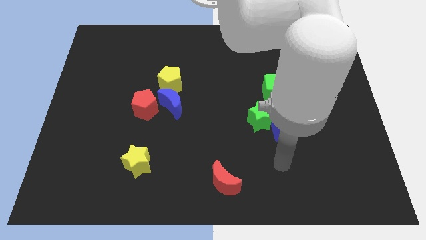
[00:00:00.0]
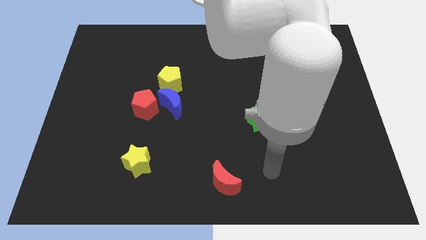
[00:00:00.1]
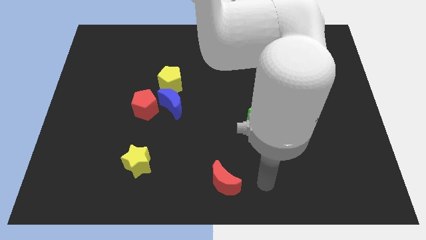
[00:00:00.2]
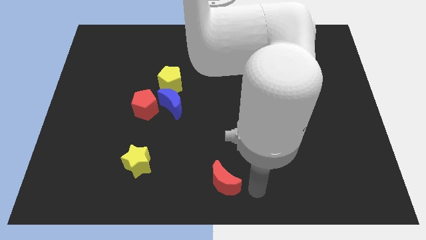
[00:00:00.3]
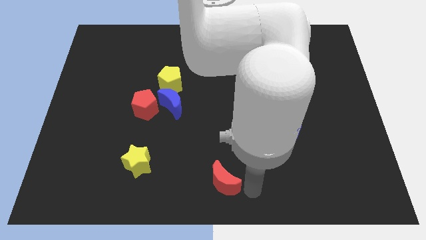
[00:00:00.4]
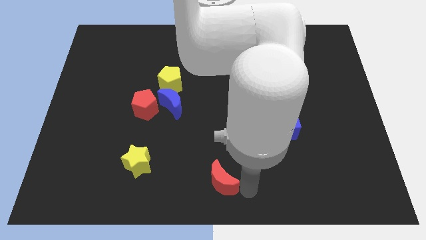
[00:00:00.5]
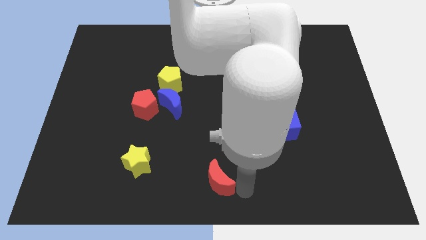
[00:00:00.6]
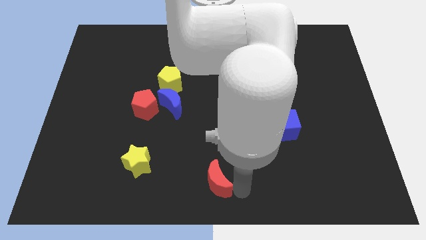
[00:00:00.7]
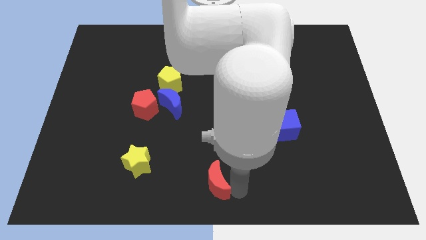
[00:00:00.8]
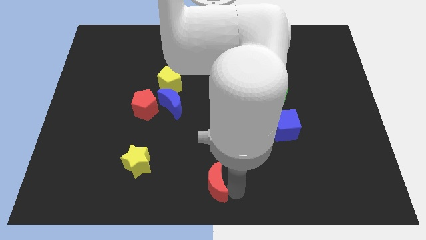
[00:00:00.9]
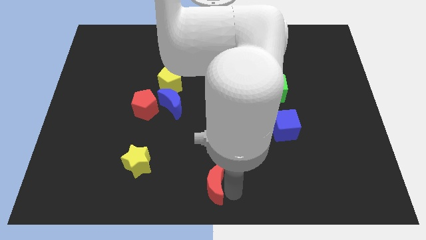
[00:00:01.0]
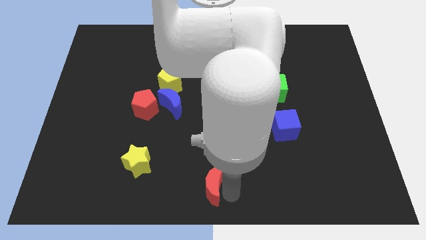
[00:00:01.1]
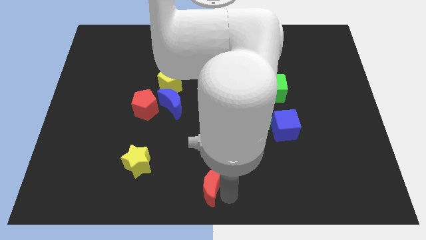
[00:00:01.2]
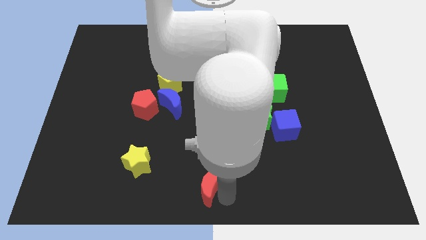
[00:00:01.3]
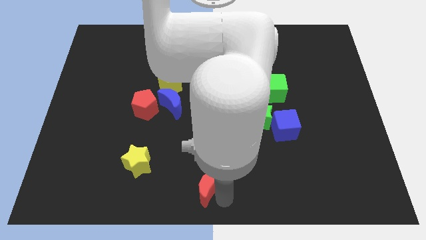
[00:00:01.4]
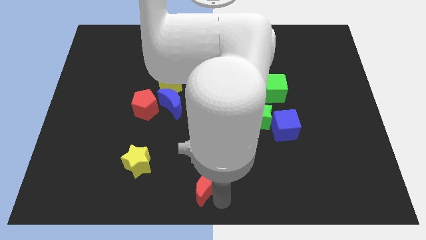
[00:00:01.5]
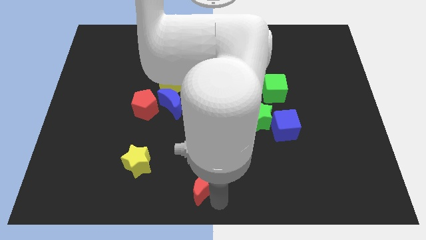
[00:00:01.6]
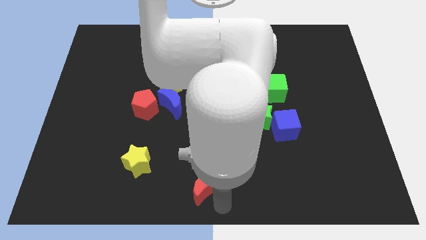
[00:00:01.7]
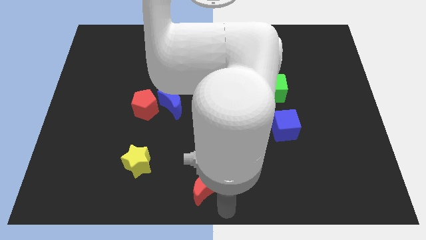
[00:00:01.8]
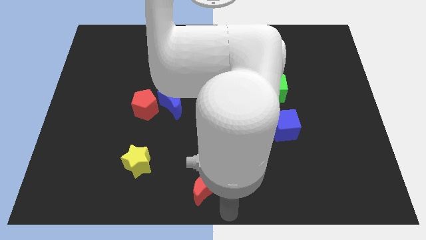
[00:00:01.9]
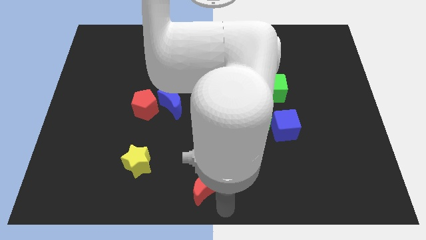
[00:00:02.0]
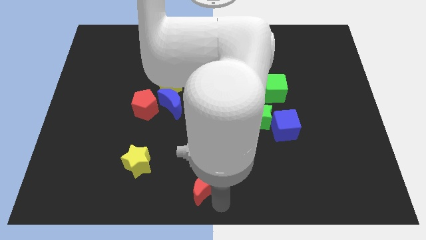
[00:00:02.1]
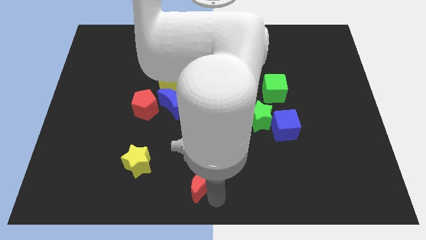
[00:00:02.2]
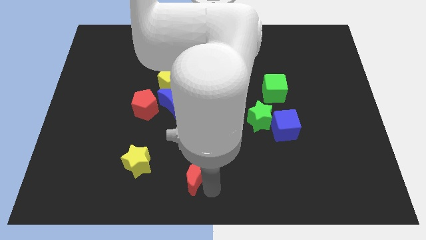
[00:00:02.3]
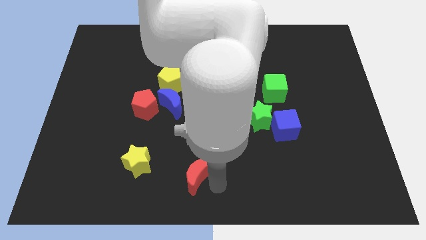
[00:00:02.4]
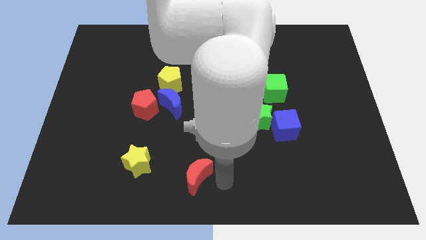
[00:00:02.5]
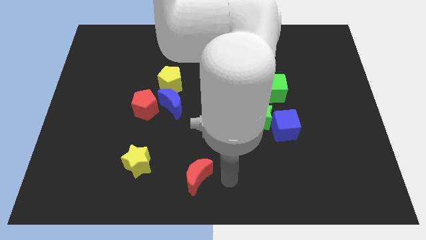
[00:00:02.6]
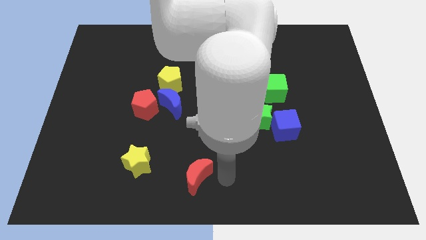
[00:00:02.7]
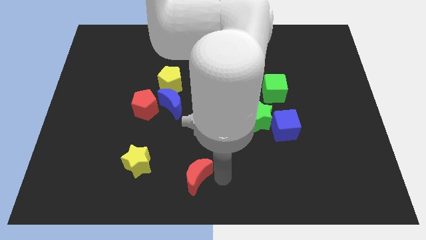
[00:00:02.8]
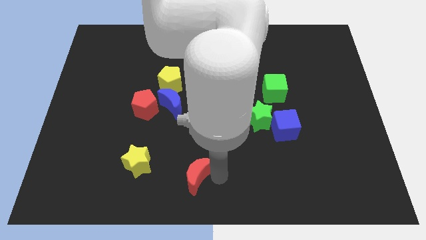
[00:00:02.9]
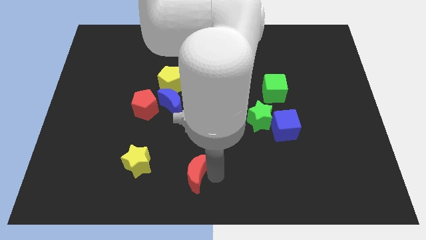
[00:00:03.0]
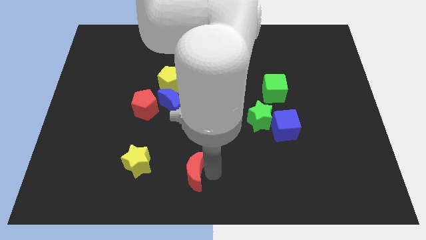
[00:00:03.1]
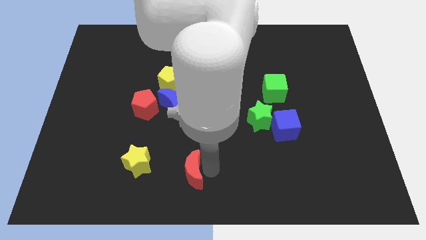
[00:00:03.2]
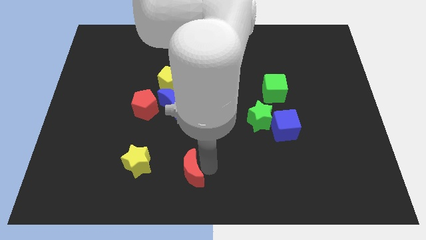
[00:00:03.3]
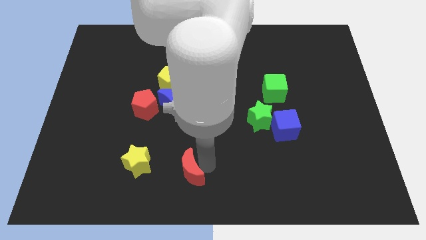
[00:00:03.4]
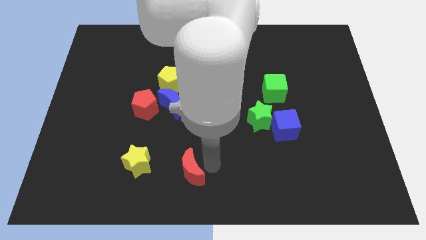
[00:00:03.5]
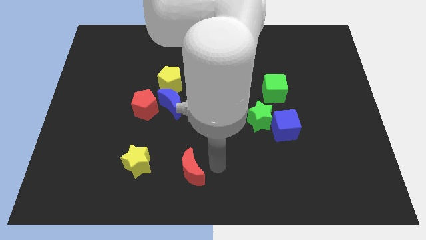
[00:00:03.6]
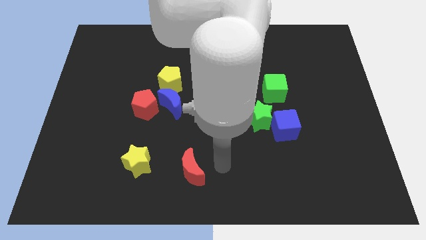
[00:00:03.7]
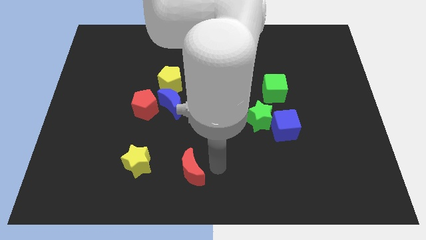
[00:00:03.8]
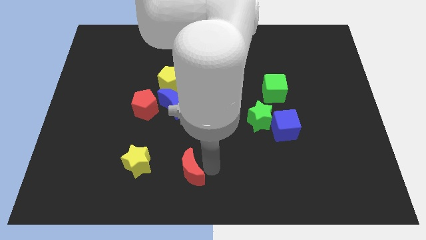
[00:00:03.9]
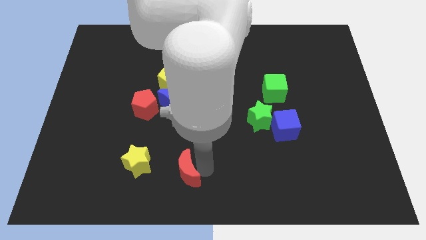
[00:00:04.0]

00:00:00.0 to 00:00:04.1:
push the red moon to the left a bit

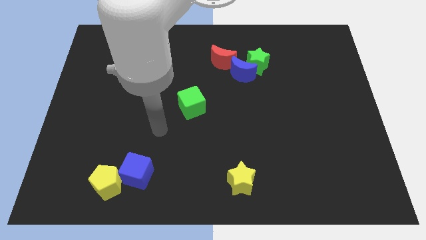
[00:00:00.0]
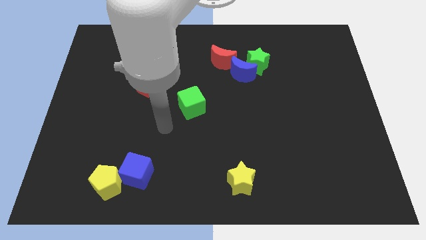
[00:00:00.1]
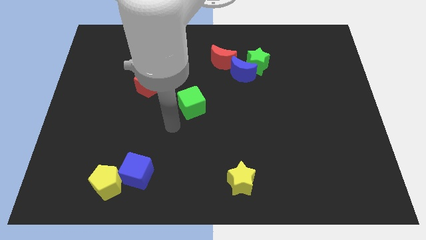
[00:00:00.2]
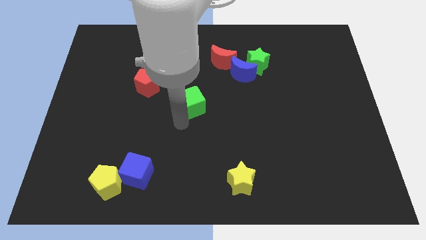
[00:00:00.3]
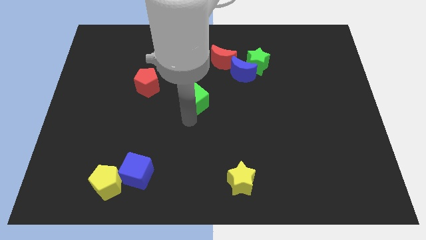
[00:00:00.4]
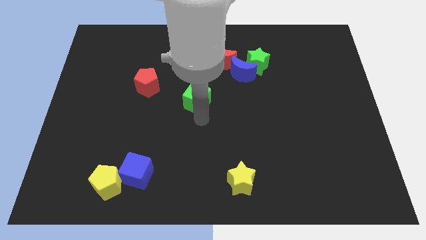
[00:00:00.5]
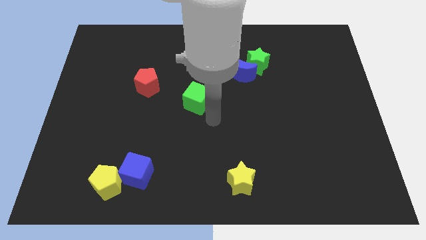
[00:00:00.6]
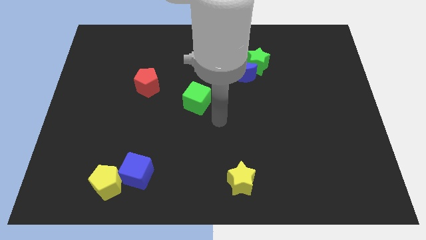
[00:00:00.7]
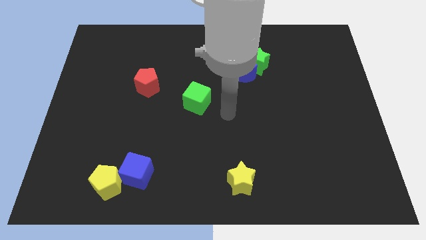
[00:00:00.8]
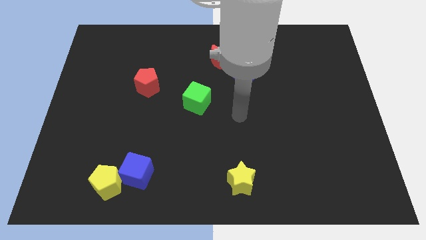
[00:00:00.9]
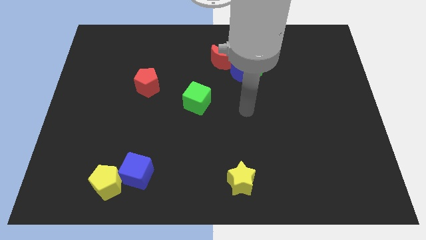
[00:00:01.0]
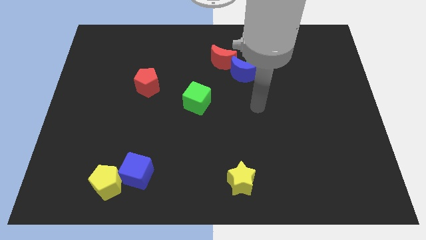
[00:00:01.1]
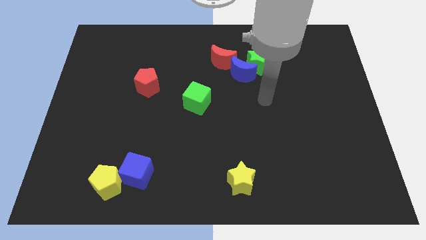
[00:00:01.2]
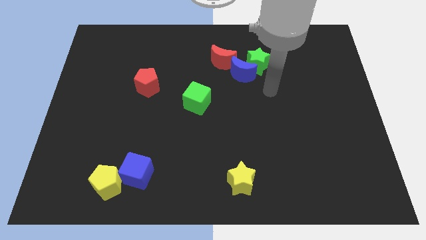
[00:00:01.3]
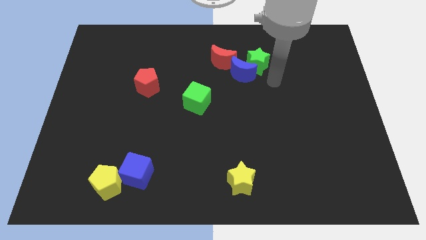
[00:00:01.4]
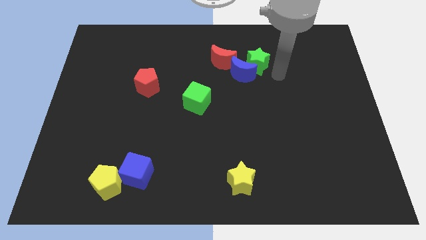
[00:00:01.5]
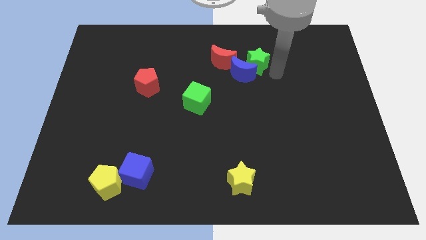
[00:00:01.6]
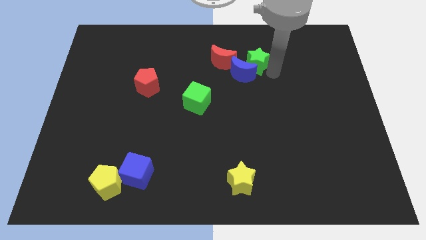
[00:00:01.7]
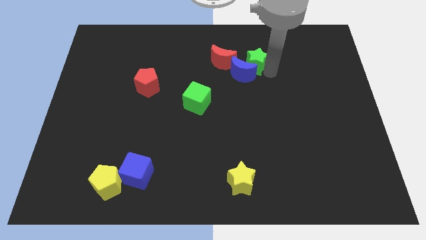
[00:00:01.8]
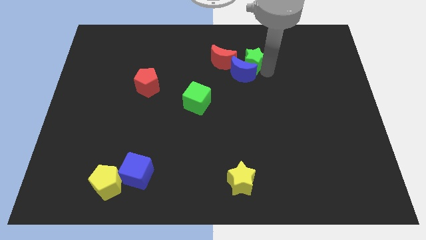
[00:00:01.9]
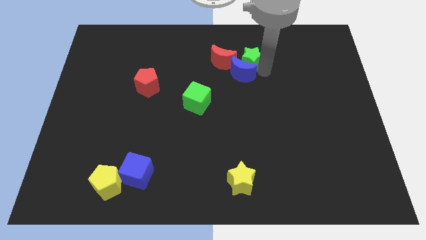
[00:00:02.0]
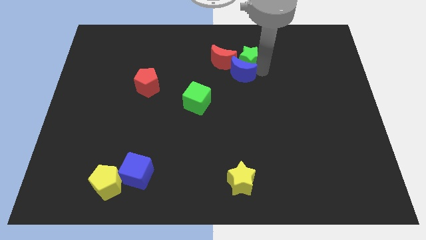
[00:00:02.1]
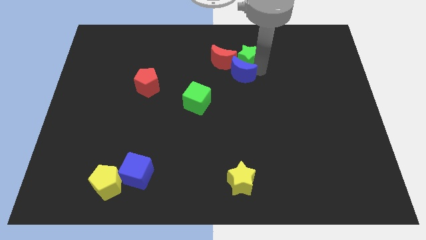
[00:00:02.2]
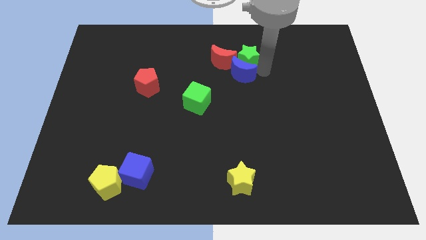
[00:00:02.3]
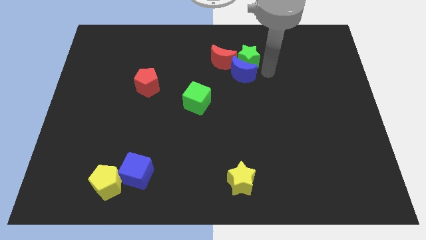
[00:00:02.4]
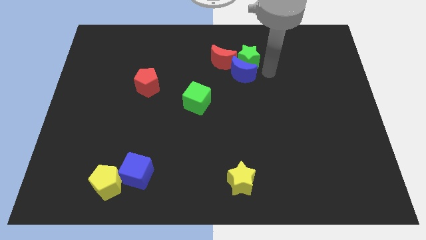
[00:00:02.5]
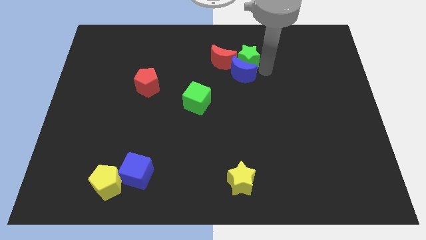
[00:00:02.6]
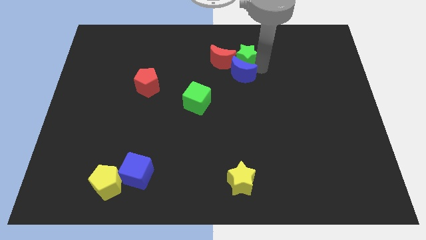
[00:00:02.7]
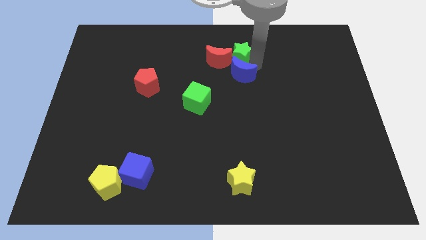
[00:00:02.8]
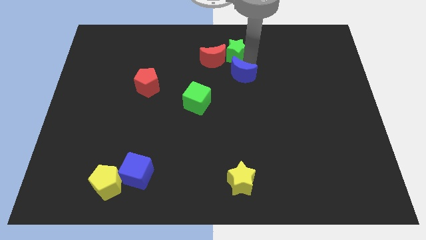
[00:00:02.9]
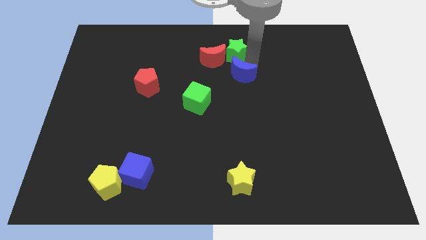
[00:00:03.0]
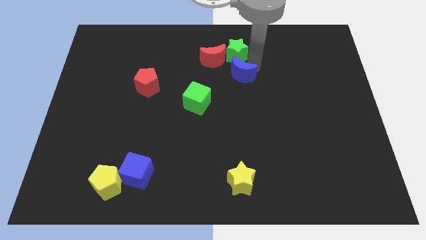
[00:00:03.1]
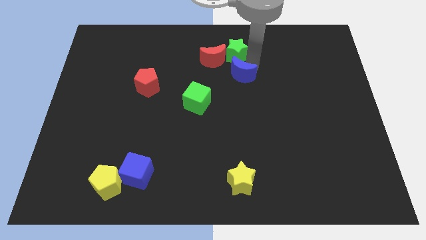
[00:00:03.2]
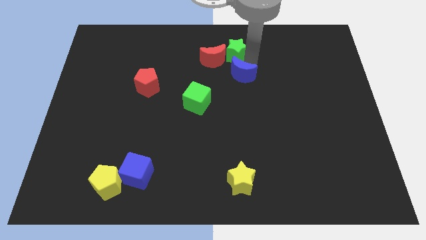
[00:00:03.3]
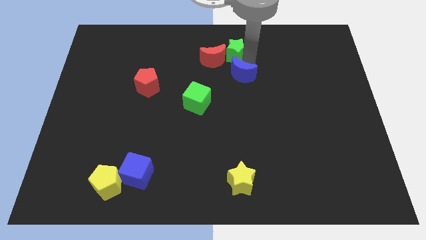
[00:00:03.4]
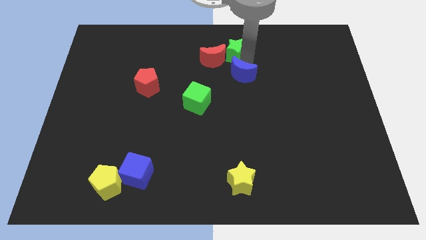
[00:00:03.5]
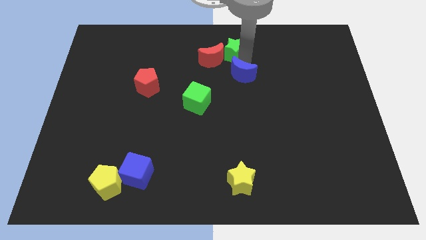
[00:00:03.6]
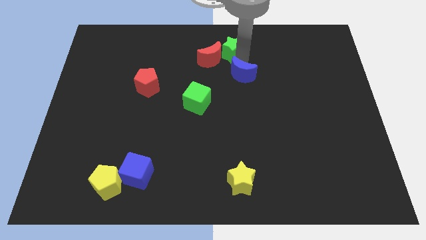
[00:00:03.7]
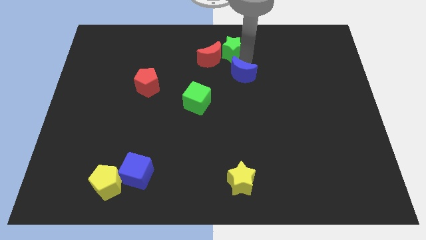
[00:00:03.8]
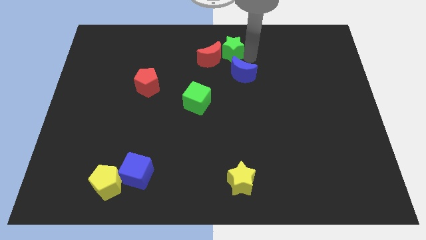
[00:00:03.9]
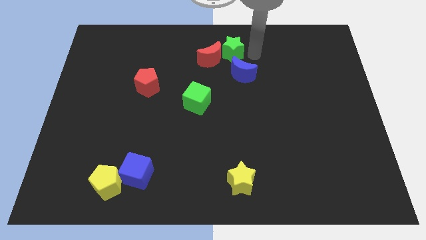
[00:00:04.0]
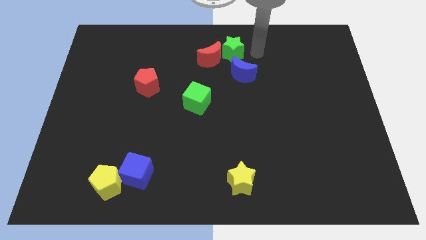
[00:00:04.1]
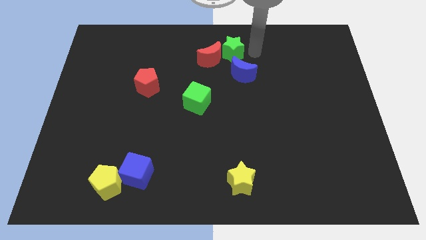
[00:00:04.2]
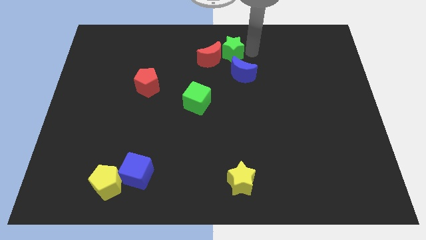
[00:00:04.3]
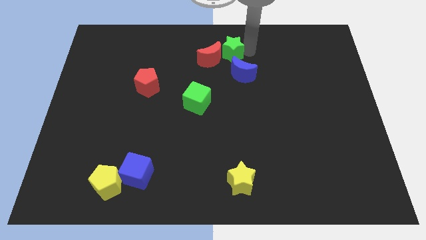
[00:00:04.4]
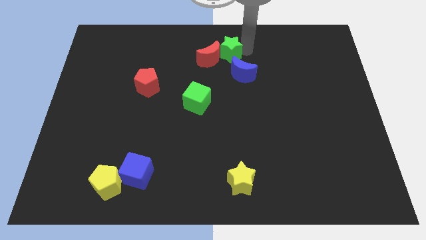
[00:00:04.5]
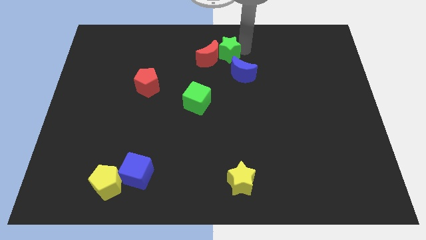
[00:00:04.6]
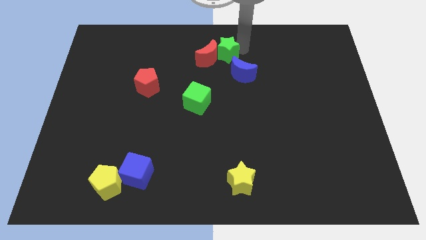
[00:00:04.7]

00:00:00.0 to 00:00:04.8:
slide the green star somewhat to the left
